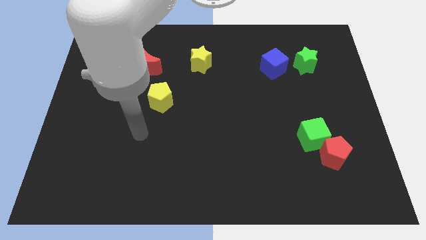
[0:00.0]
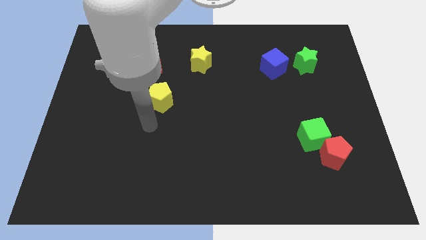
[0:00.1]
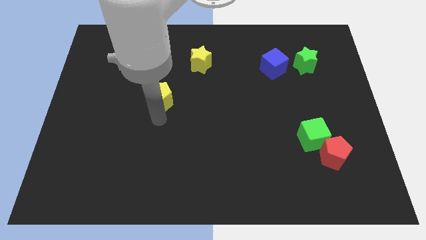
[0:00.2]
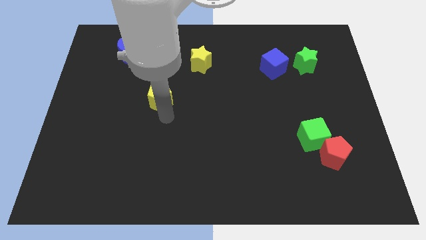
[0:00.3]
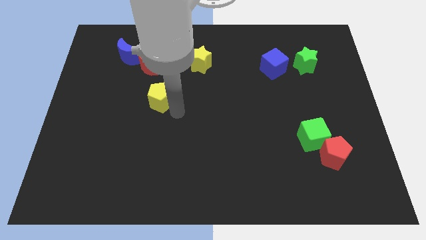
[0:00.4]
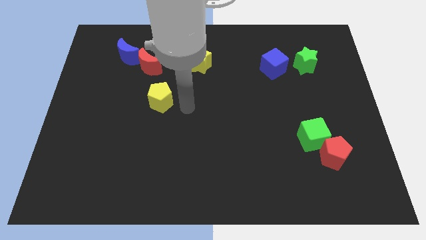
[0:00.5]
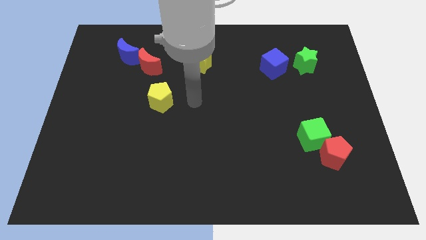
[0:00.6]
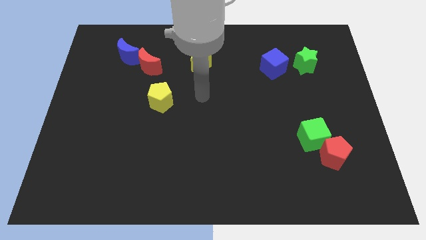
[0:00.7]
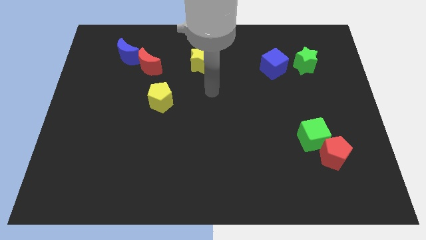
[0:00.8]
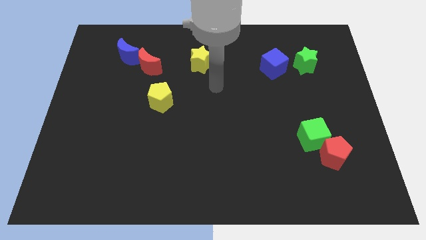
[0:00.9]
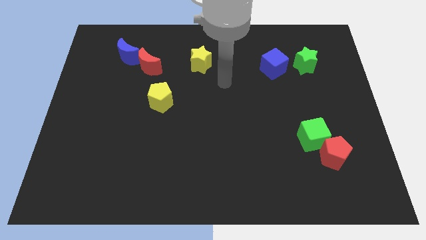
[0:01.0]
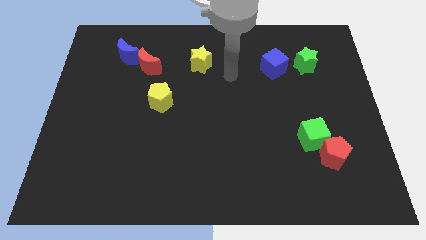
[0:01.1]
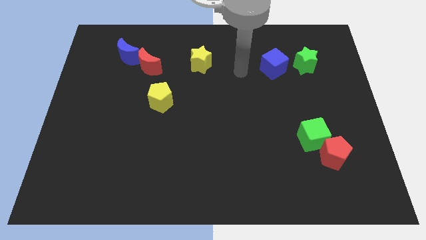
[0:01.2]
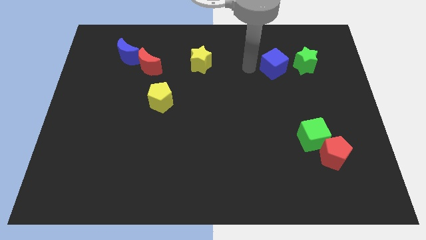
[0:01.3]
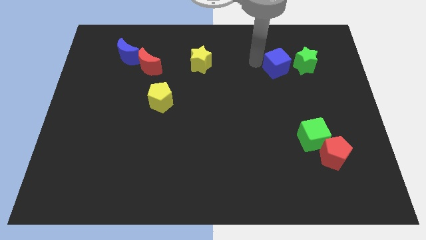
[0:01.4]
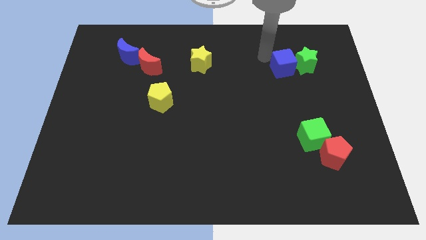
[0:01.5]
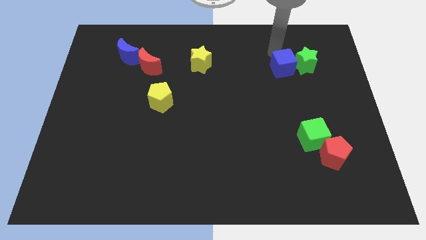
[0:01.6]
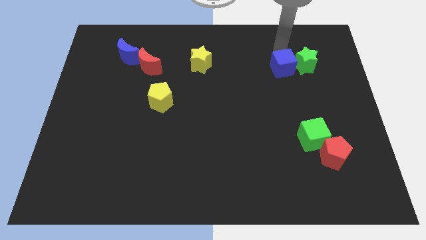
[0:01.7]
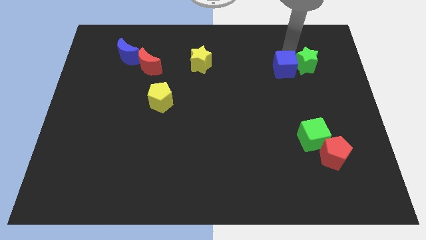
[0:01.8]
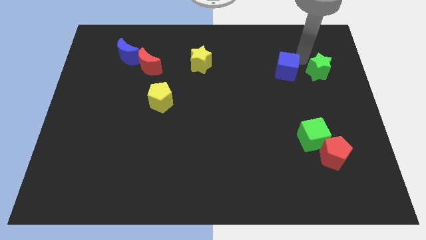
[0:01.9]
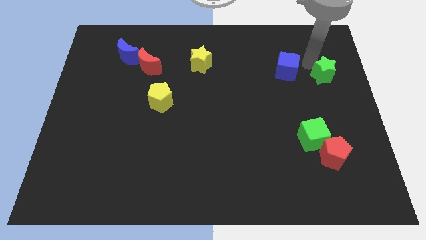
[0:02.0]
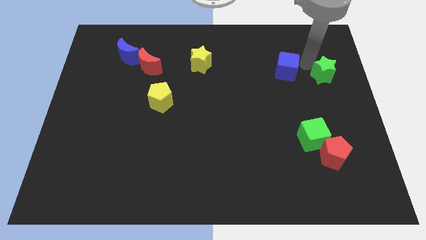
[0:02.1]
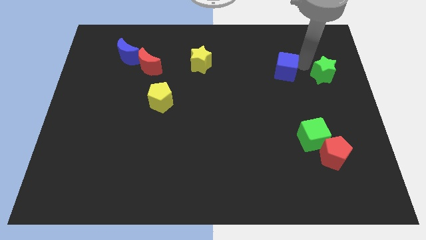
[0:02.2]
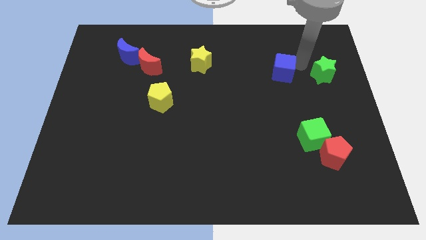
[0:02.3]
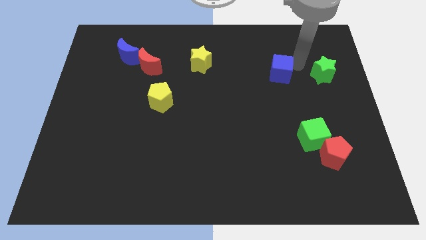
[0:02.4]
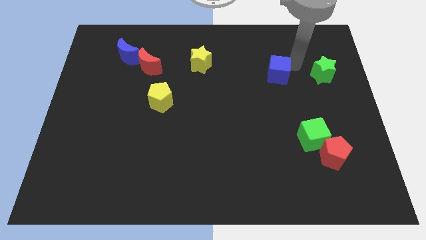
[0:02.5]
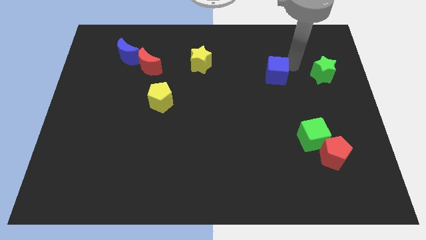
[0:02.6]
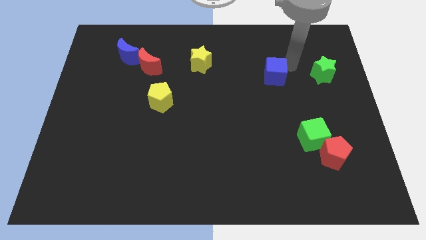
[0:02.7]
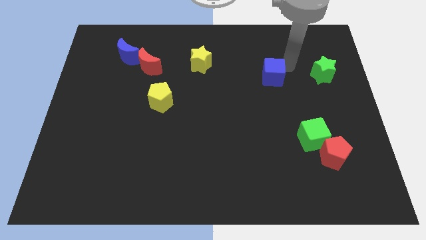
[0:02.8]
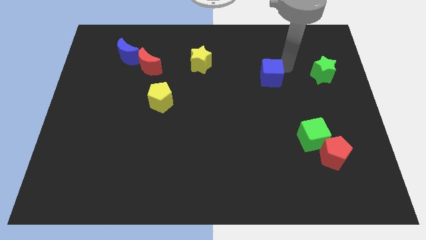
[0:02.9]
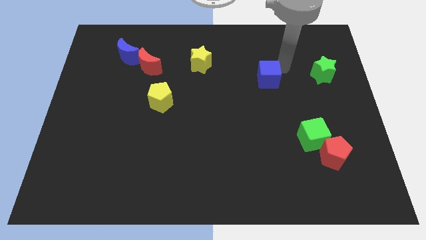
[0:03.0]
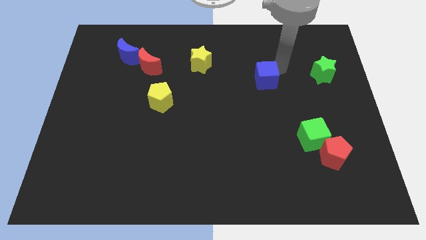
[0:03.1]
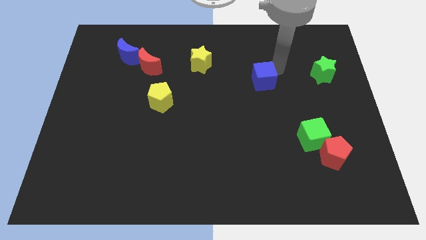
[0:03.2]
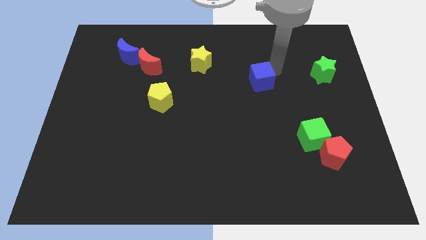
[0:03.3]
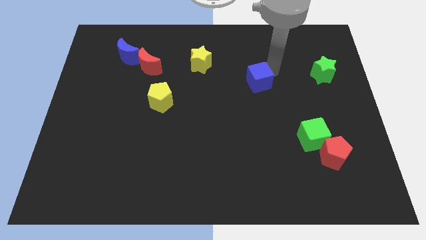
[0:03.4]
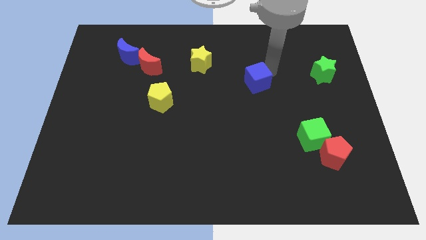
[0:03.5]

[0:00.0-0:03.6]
move the blue cube diagonally downwards and to the left a little

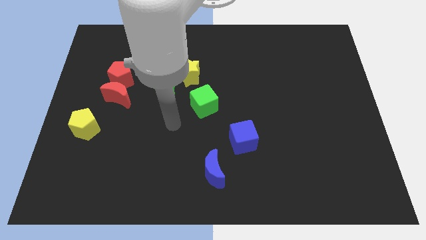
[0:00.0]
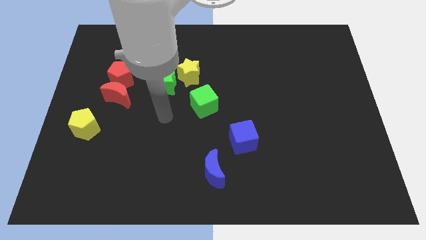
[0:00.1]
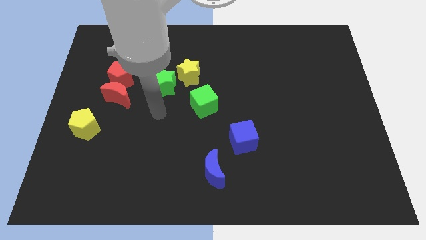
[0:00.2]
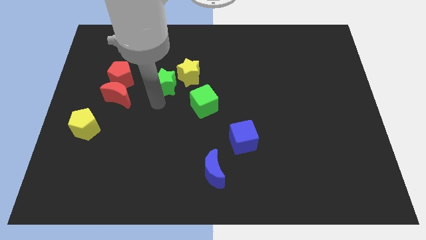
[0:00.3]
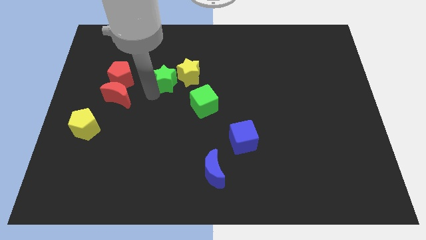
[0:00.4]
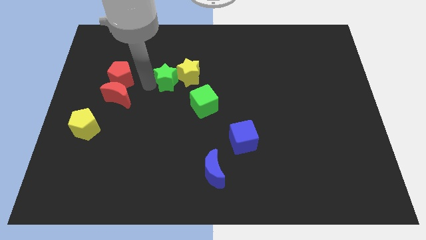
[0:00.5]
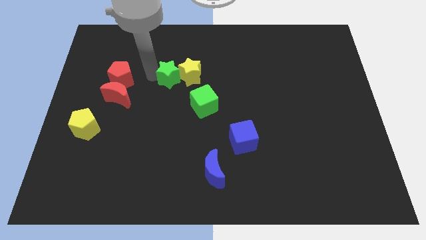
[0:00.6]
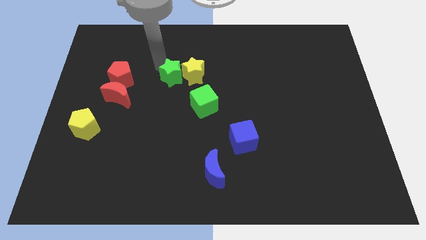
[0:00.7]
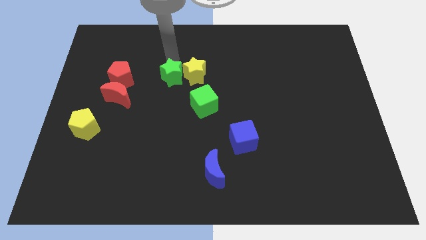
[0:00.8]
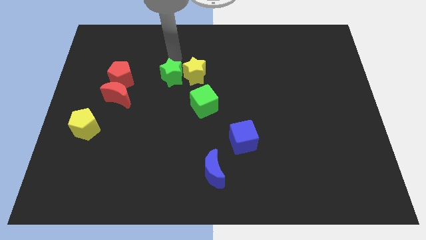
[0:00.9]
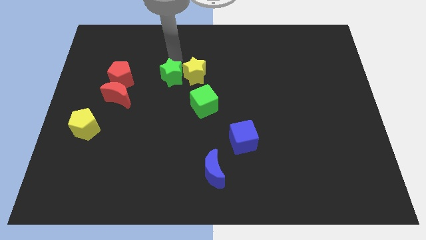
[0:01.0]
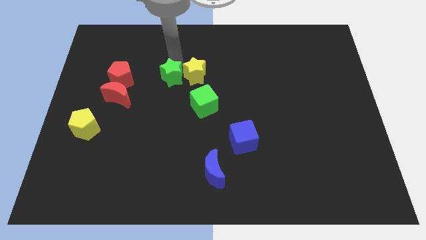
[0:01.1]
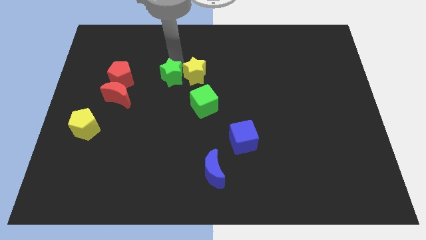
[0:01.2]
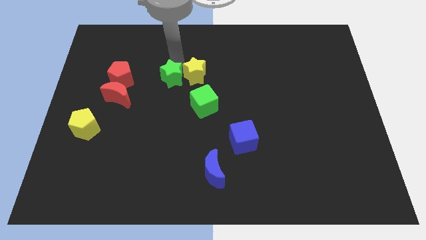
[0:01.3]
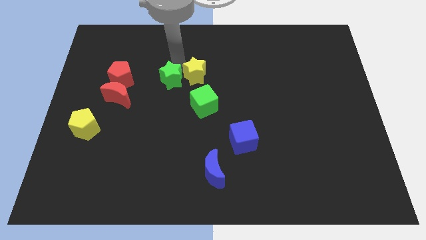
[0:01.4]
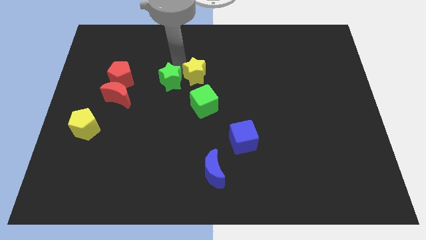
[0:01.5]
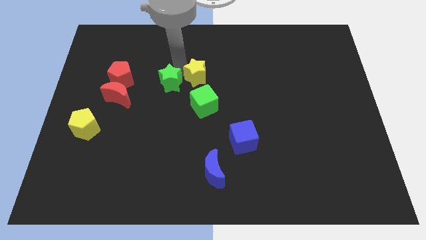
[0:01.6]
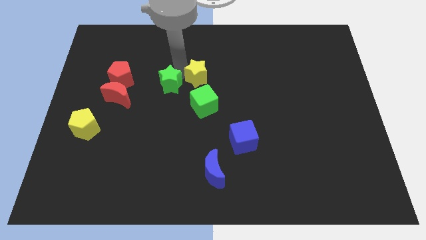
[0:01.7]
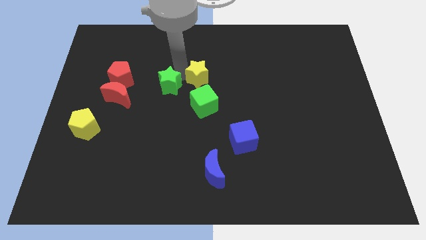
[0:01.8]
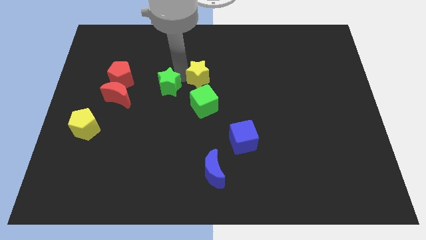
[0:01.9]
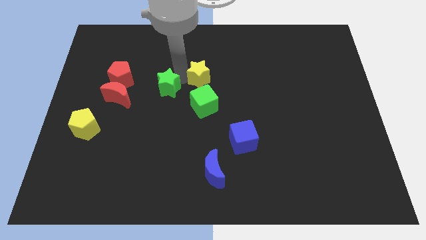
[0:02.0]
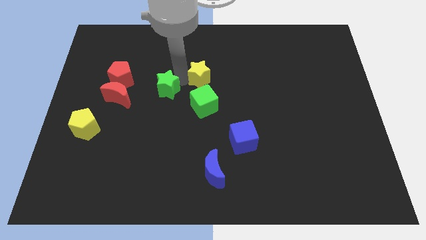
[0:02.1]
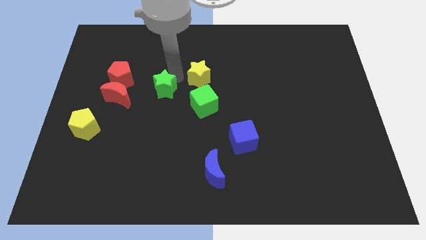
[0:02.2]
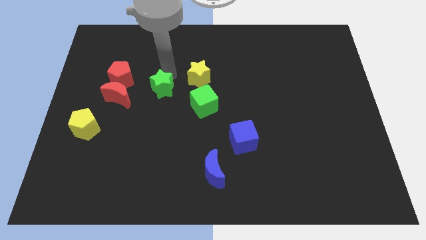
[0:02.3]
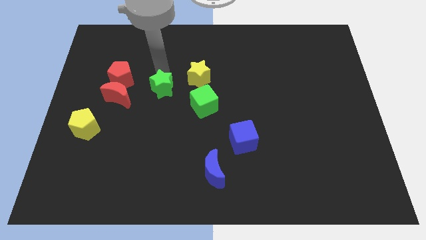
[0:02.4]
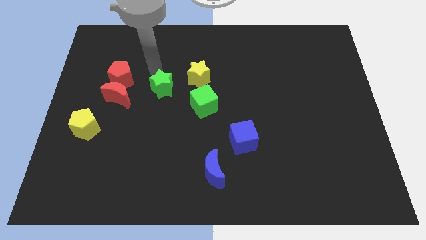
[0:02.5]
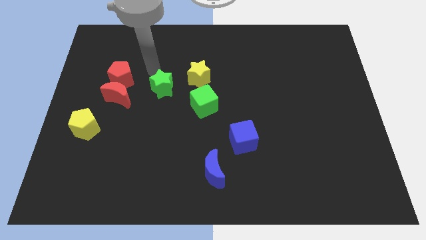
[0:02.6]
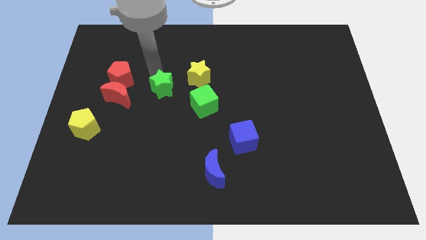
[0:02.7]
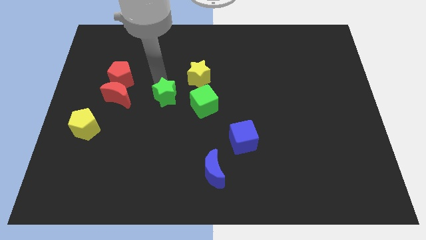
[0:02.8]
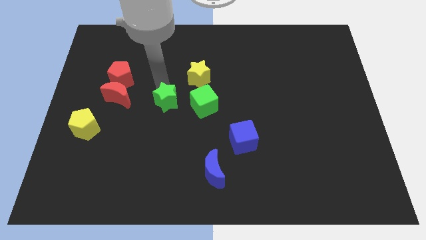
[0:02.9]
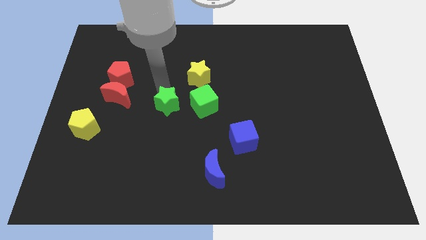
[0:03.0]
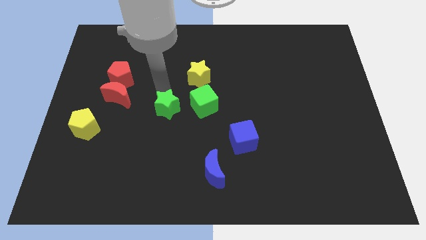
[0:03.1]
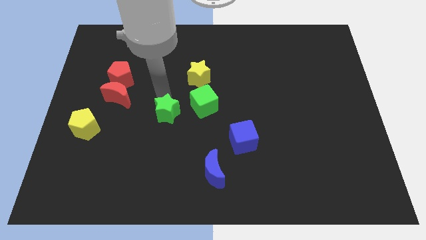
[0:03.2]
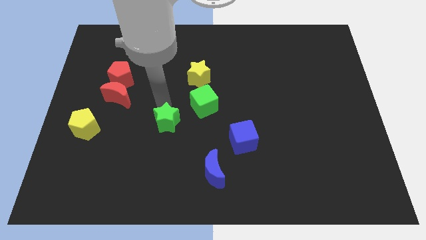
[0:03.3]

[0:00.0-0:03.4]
slide the green star slightly down and to the right

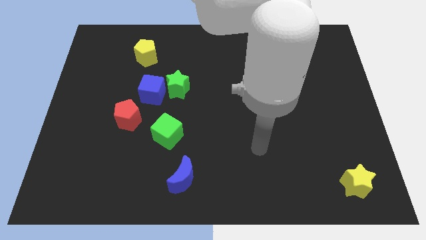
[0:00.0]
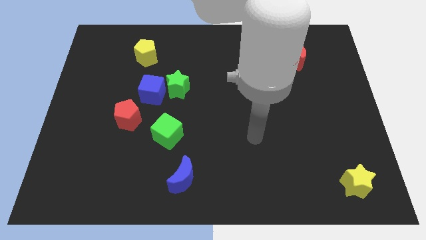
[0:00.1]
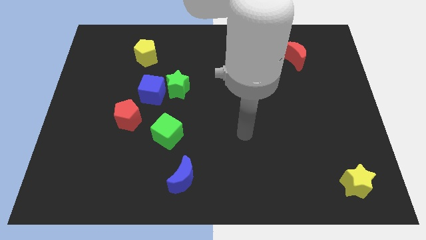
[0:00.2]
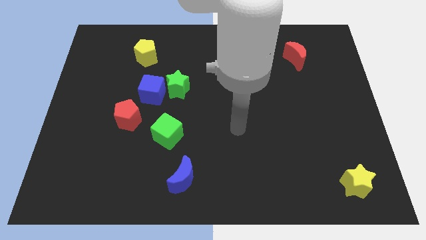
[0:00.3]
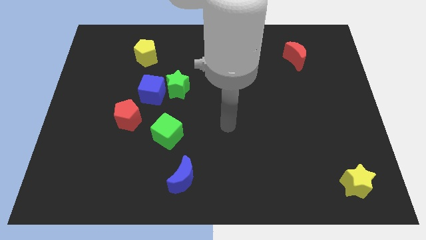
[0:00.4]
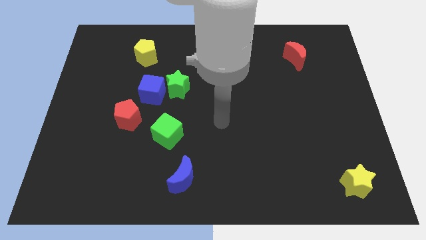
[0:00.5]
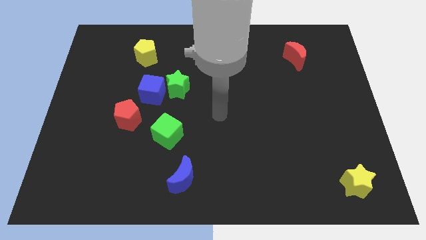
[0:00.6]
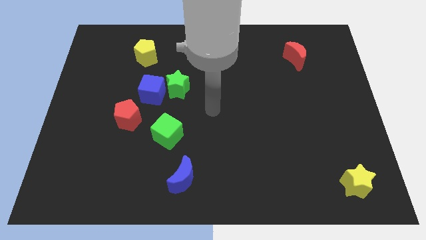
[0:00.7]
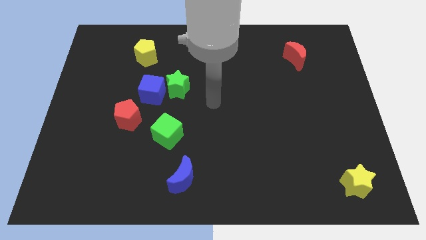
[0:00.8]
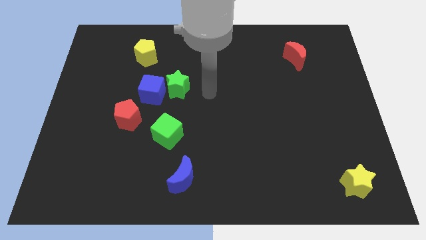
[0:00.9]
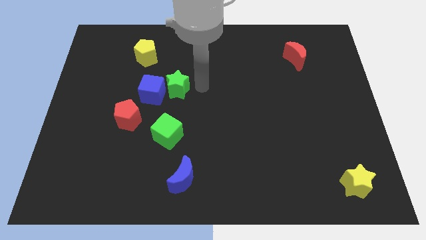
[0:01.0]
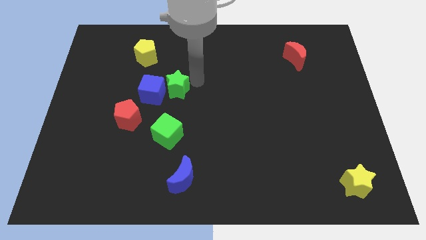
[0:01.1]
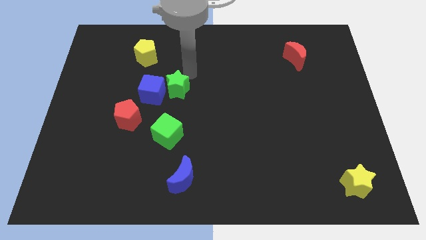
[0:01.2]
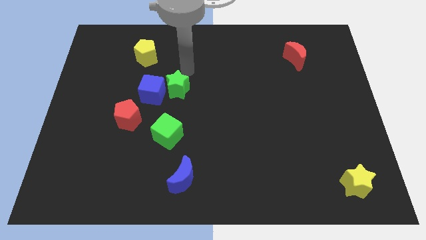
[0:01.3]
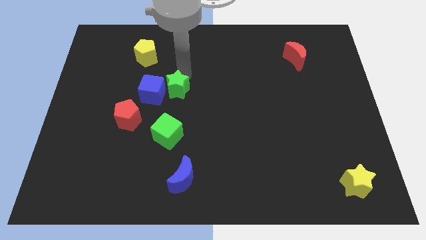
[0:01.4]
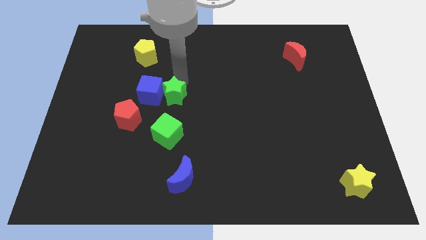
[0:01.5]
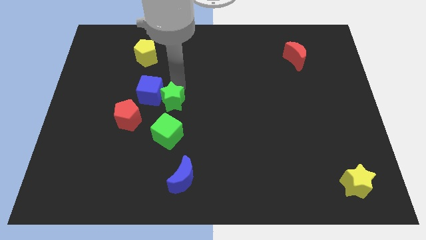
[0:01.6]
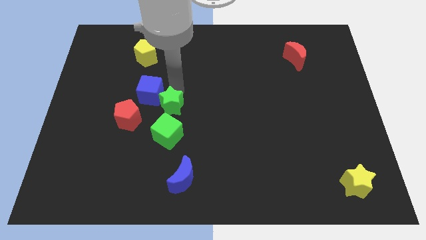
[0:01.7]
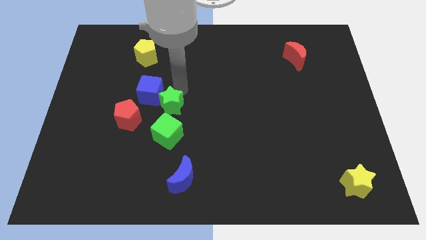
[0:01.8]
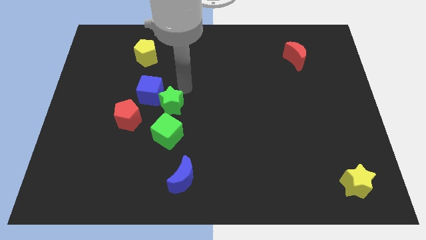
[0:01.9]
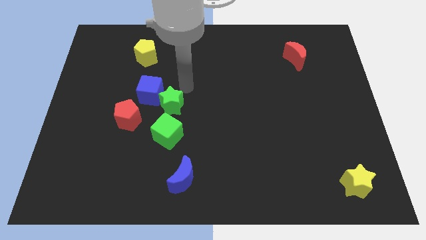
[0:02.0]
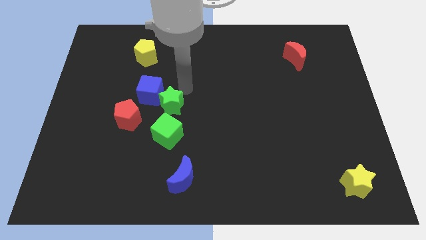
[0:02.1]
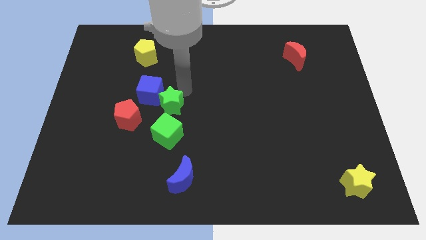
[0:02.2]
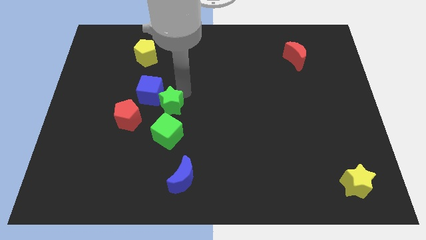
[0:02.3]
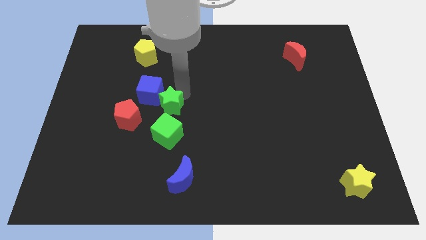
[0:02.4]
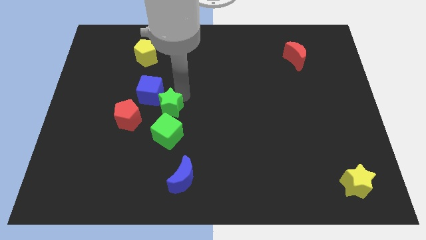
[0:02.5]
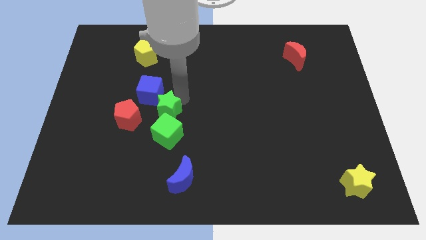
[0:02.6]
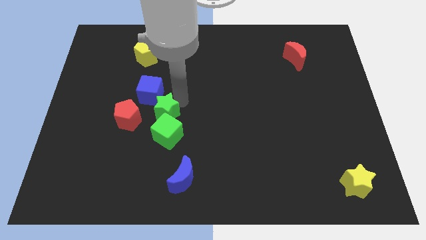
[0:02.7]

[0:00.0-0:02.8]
move the green star slightly down
